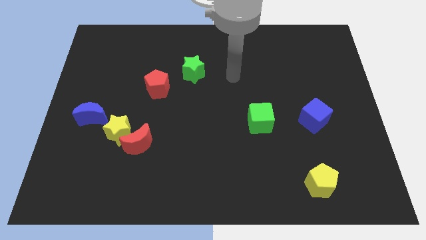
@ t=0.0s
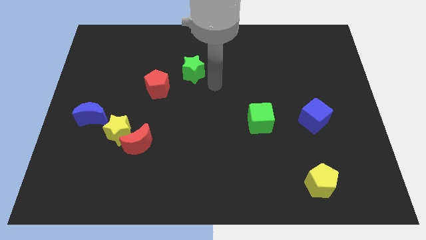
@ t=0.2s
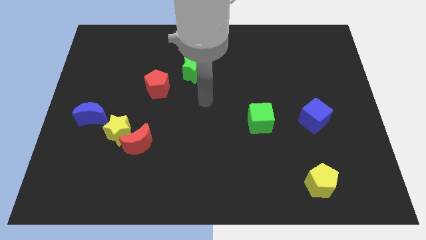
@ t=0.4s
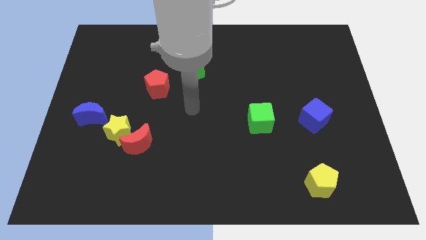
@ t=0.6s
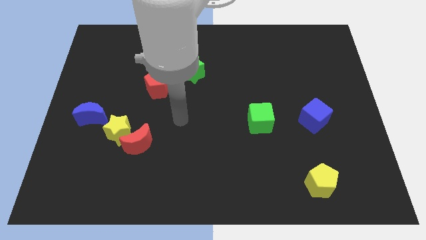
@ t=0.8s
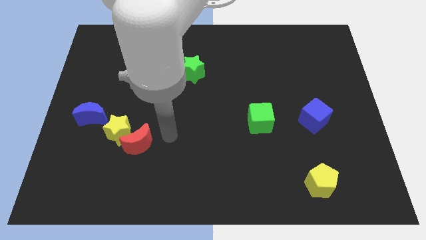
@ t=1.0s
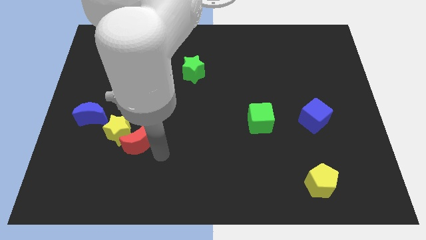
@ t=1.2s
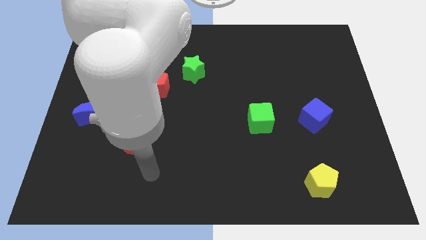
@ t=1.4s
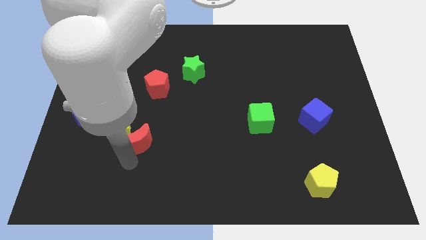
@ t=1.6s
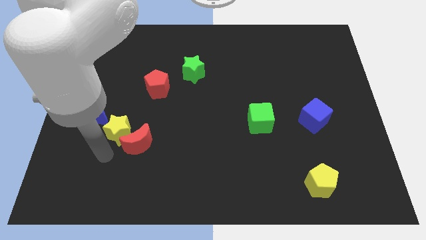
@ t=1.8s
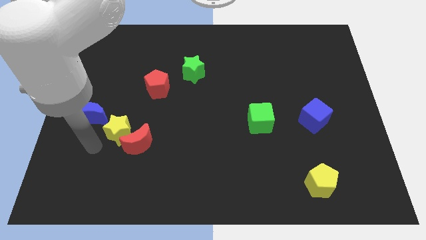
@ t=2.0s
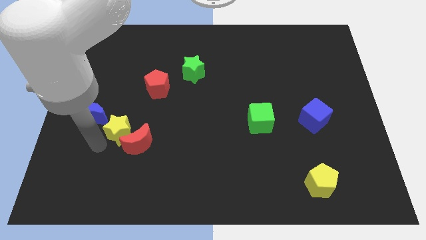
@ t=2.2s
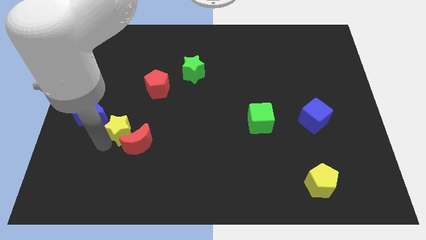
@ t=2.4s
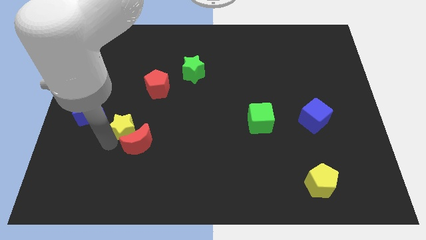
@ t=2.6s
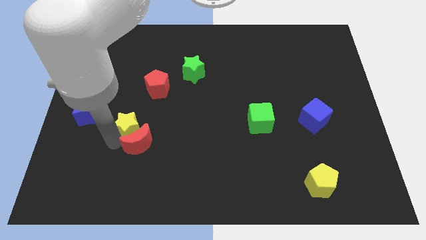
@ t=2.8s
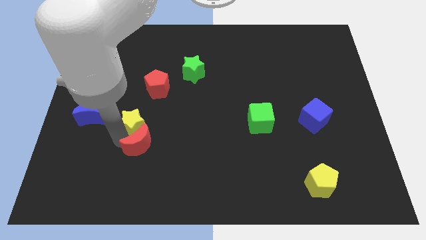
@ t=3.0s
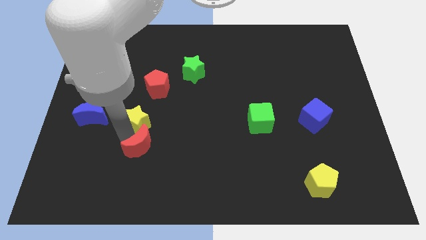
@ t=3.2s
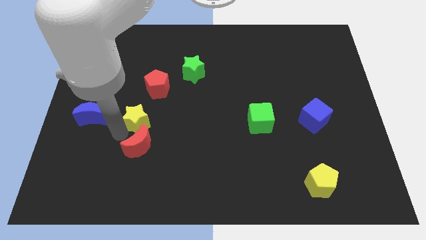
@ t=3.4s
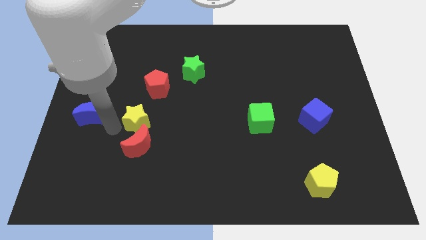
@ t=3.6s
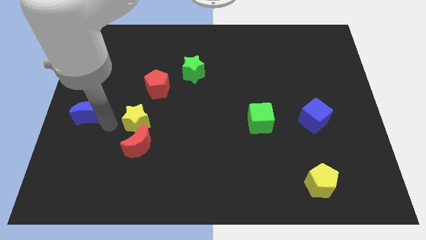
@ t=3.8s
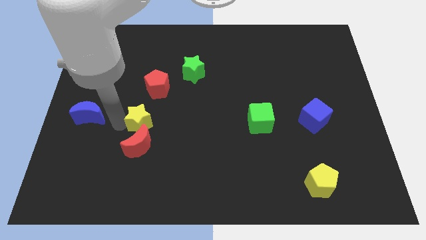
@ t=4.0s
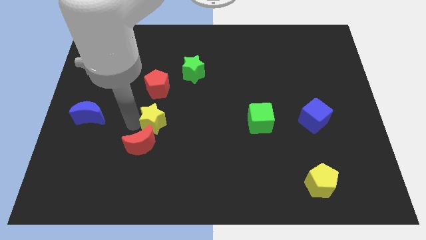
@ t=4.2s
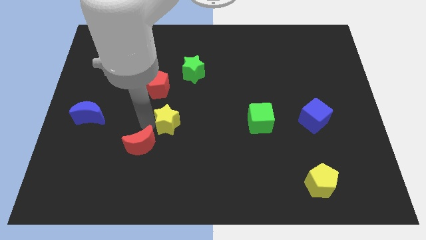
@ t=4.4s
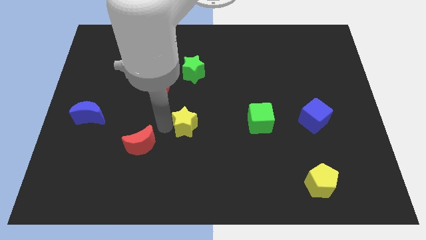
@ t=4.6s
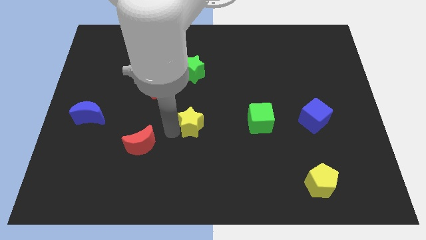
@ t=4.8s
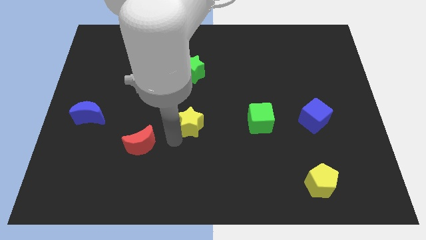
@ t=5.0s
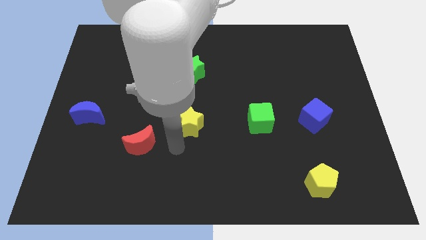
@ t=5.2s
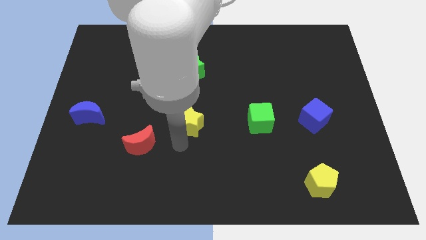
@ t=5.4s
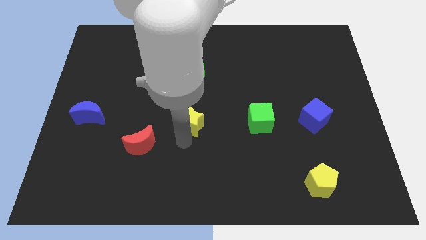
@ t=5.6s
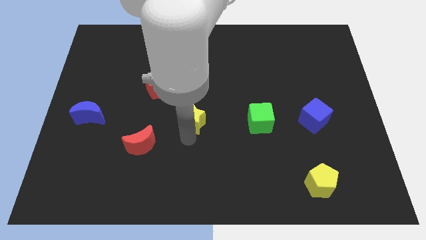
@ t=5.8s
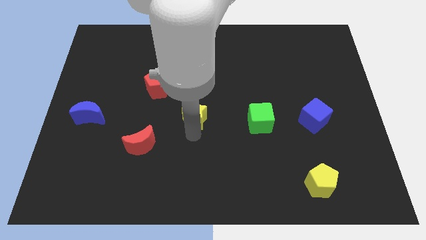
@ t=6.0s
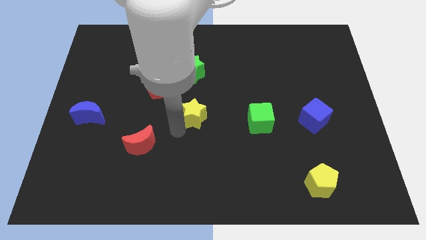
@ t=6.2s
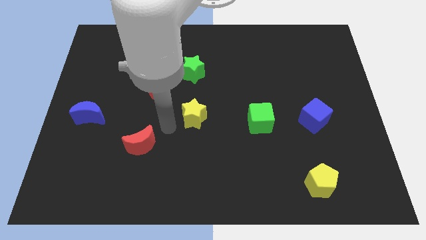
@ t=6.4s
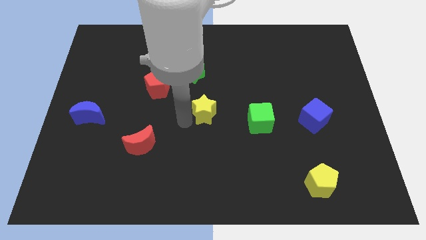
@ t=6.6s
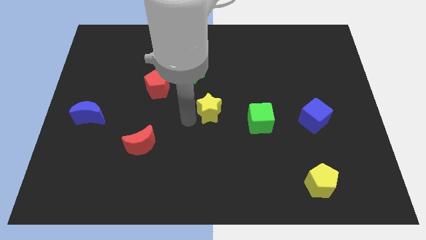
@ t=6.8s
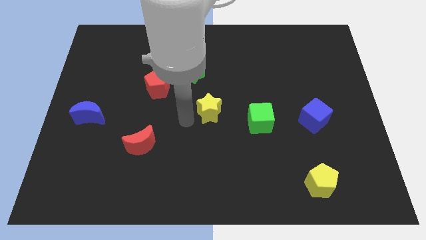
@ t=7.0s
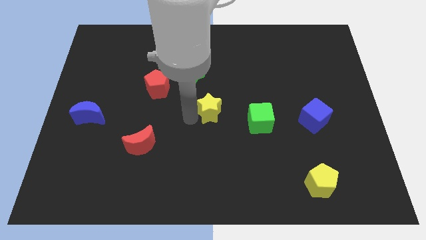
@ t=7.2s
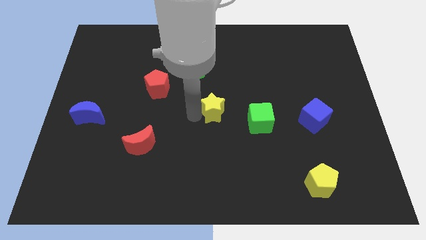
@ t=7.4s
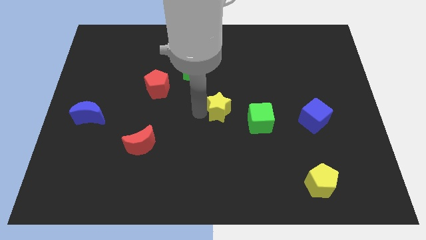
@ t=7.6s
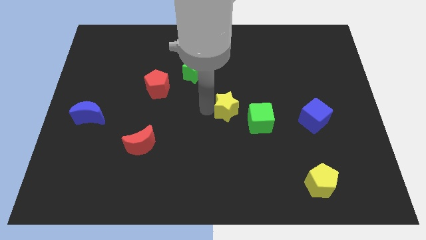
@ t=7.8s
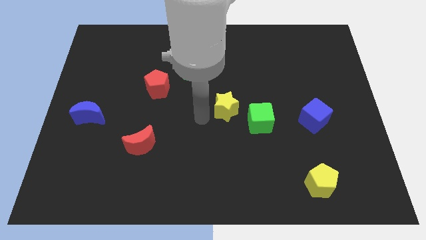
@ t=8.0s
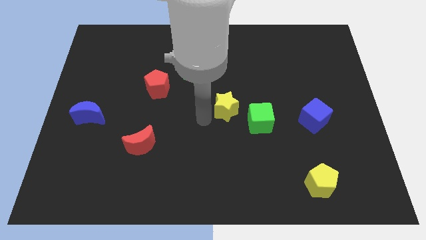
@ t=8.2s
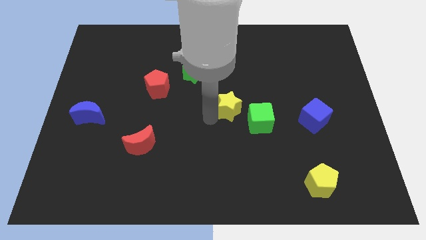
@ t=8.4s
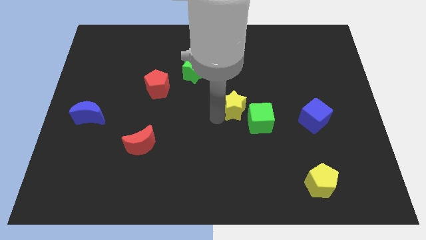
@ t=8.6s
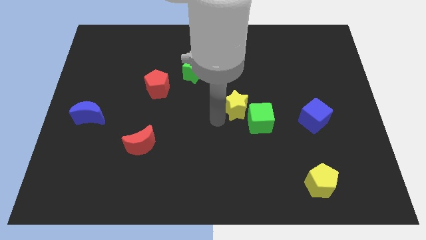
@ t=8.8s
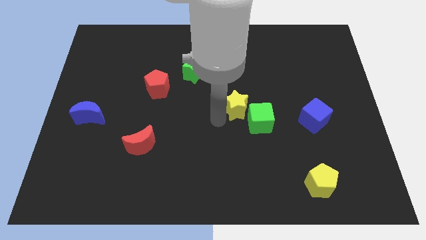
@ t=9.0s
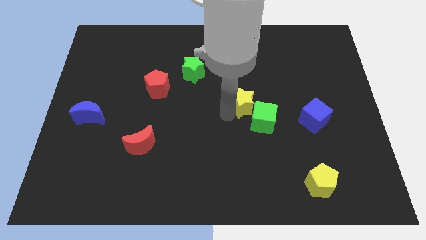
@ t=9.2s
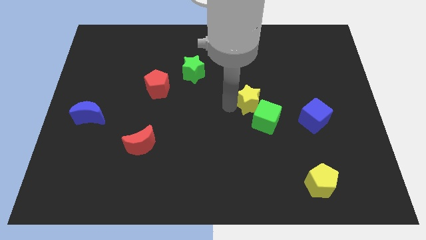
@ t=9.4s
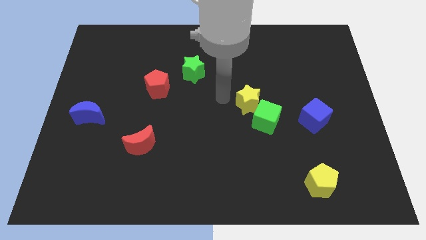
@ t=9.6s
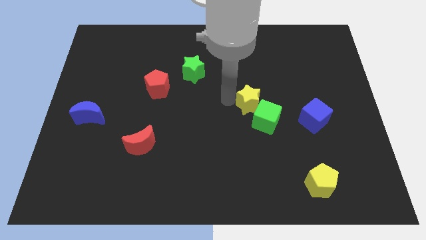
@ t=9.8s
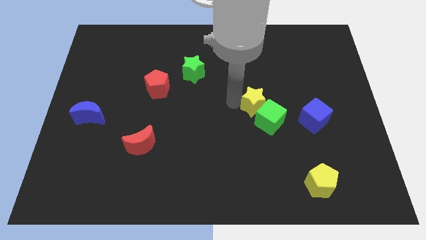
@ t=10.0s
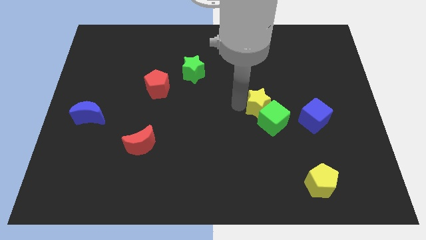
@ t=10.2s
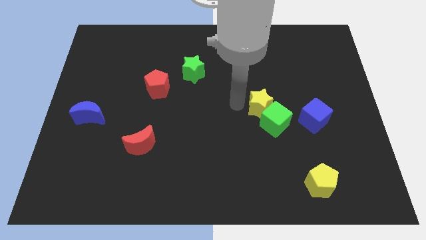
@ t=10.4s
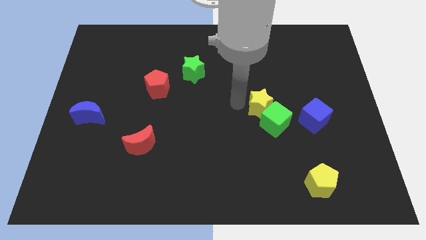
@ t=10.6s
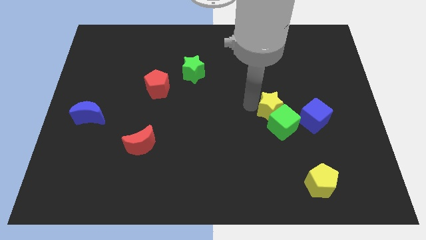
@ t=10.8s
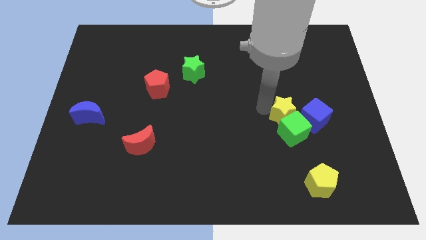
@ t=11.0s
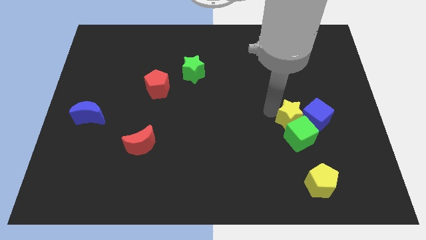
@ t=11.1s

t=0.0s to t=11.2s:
slide the yellow star next to the blue cube

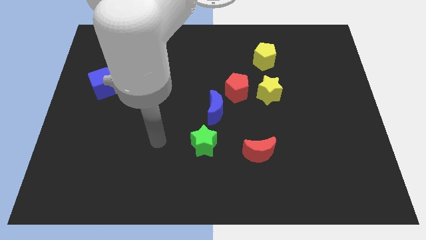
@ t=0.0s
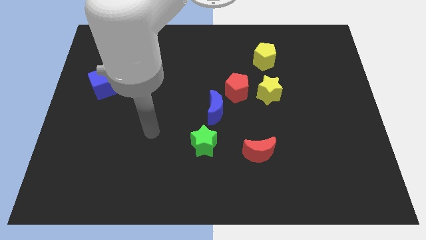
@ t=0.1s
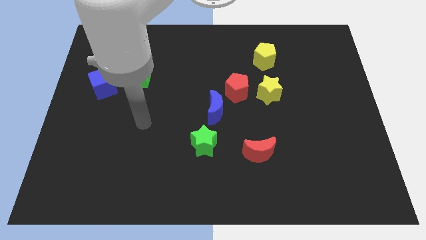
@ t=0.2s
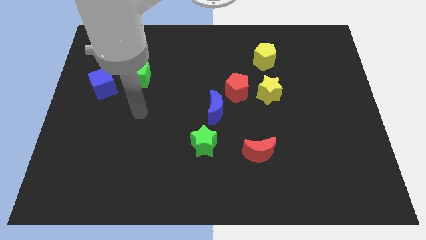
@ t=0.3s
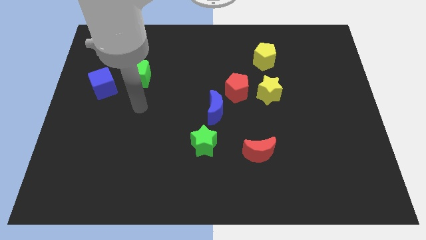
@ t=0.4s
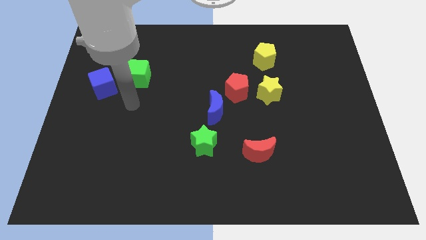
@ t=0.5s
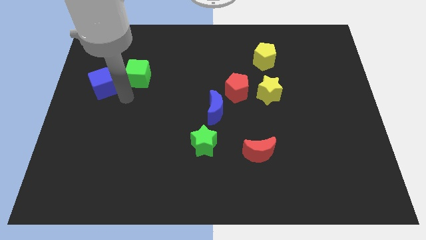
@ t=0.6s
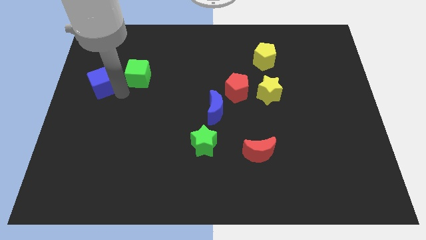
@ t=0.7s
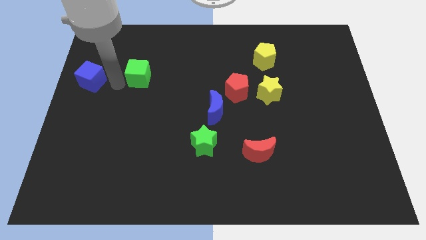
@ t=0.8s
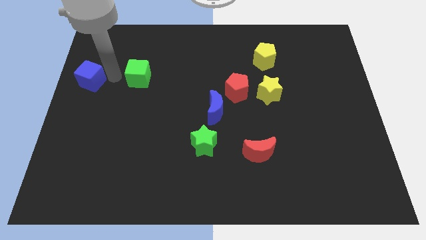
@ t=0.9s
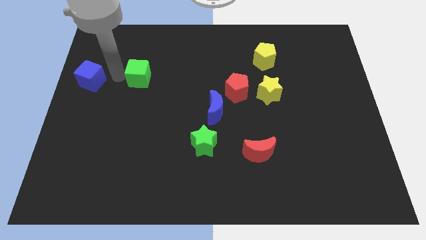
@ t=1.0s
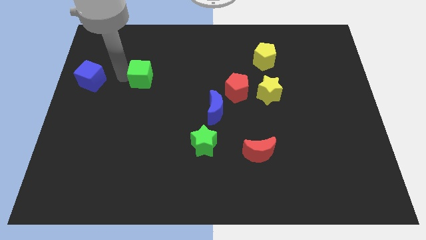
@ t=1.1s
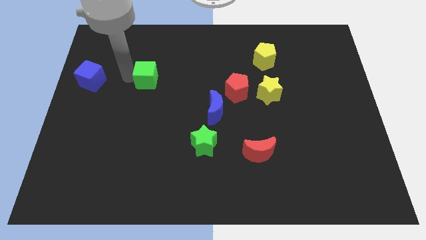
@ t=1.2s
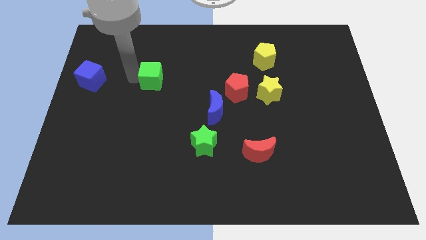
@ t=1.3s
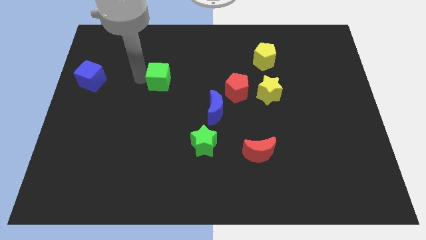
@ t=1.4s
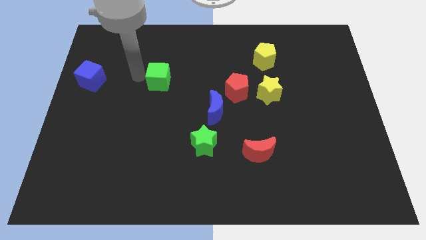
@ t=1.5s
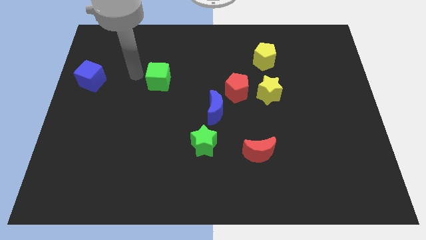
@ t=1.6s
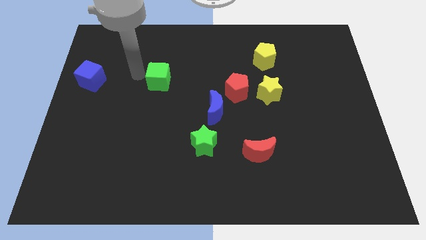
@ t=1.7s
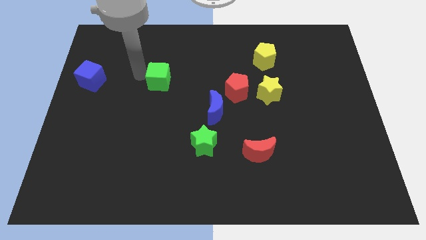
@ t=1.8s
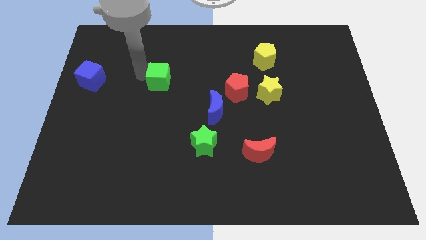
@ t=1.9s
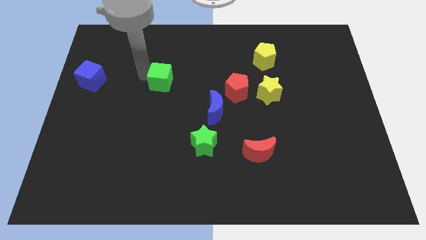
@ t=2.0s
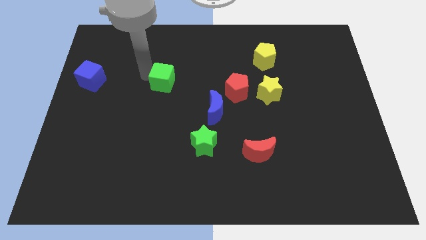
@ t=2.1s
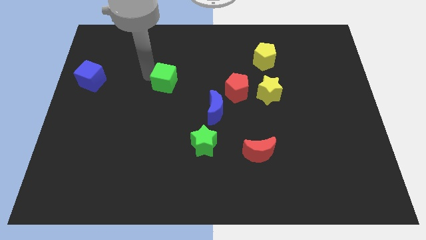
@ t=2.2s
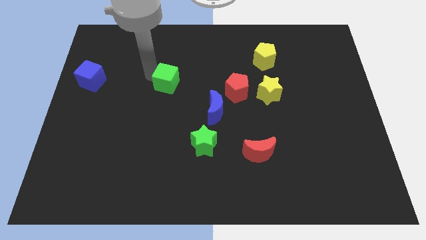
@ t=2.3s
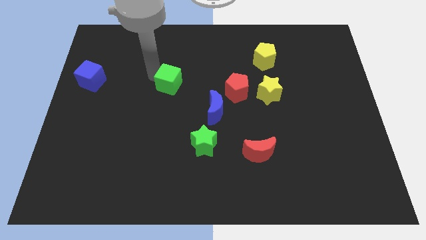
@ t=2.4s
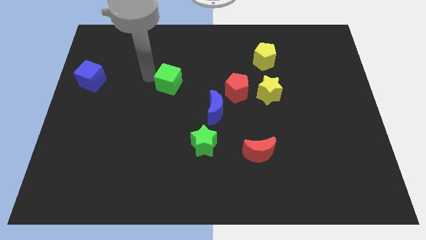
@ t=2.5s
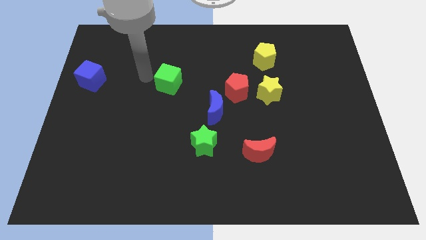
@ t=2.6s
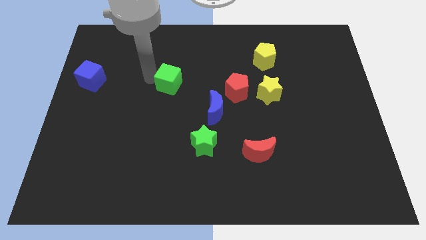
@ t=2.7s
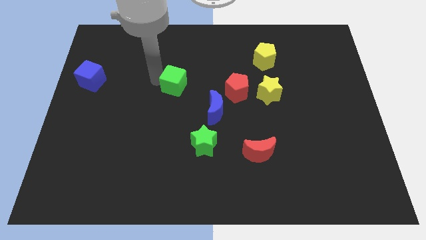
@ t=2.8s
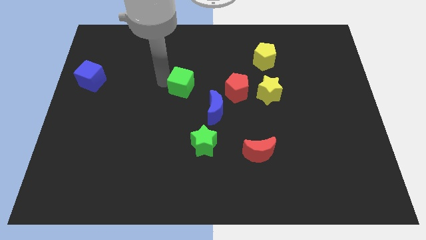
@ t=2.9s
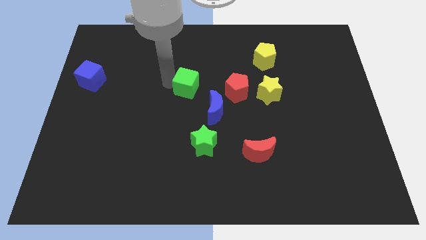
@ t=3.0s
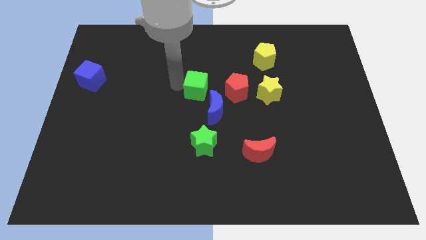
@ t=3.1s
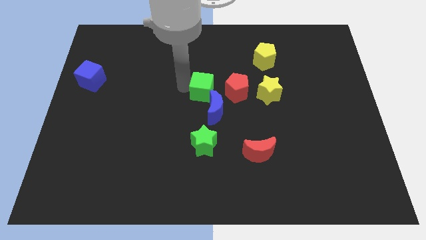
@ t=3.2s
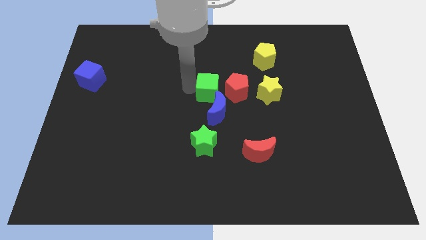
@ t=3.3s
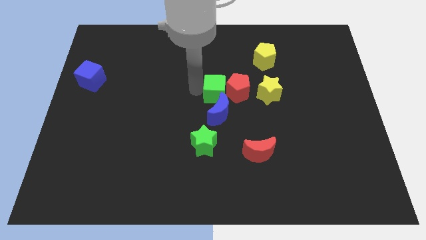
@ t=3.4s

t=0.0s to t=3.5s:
put the green cube next to the red pentagon
